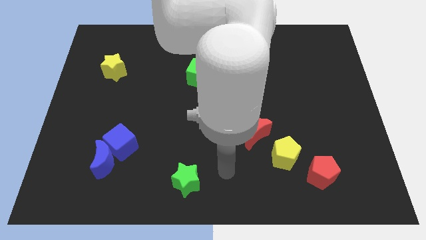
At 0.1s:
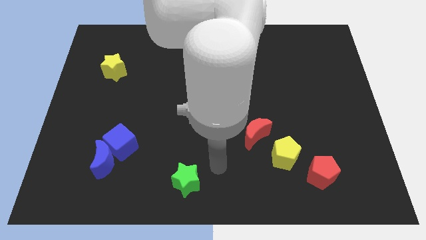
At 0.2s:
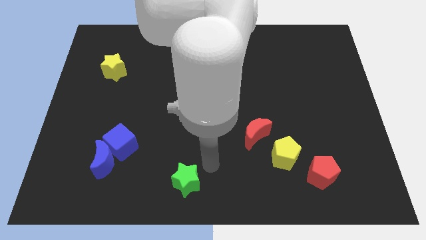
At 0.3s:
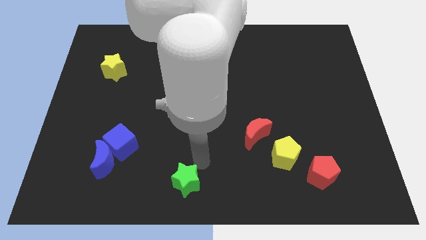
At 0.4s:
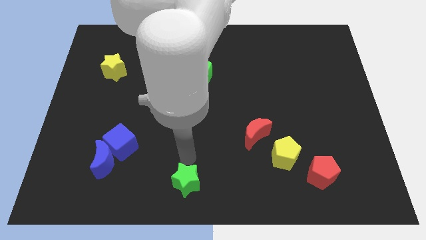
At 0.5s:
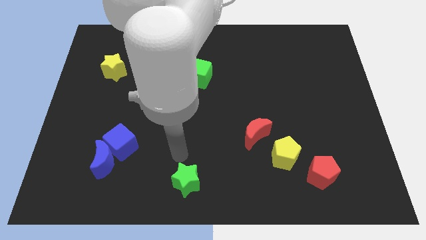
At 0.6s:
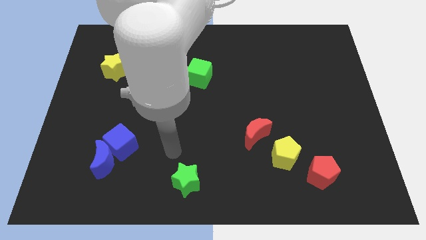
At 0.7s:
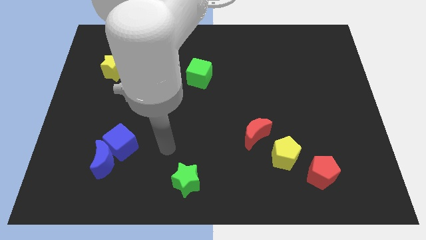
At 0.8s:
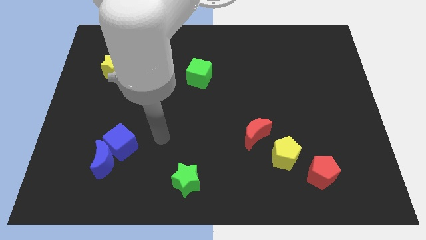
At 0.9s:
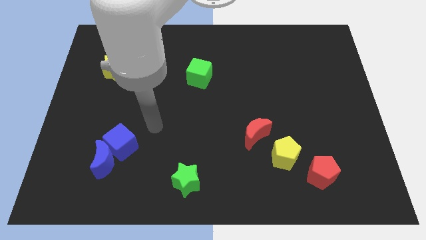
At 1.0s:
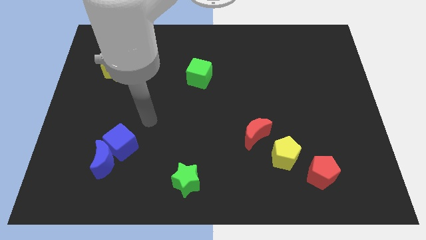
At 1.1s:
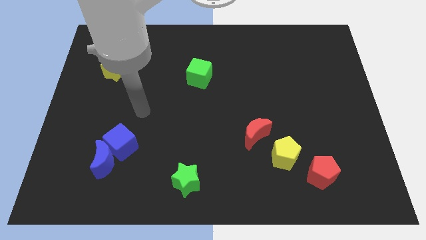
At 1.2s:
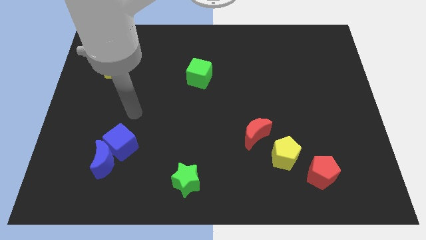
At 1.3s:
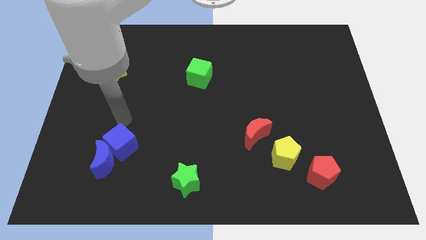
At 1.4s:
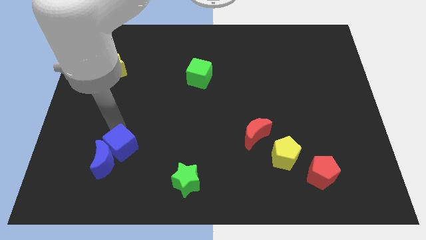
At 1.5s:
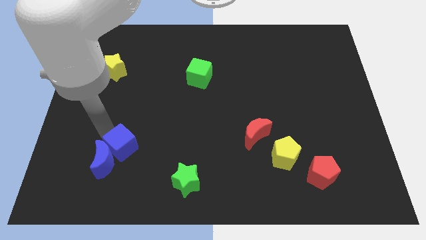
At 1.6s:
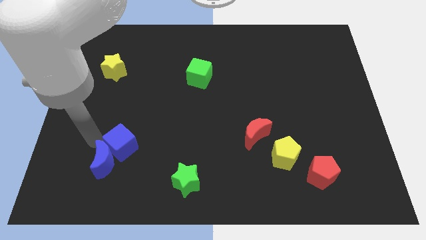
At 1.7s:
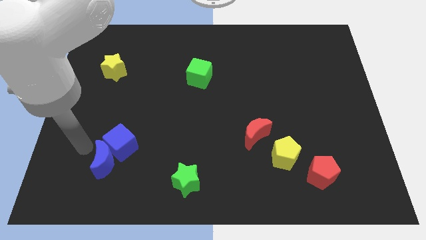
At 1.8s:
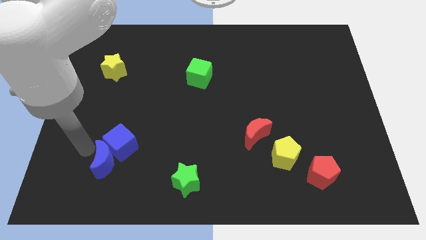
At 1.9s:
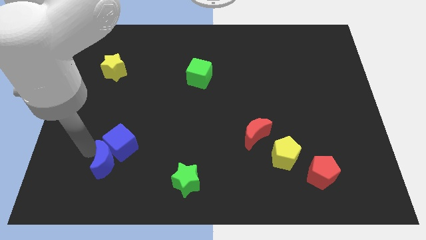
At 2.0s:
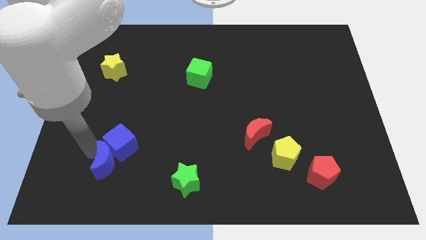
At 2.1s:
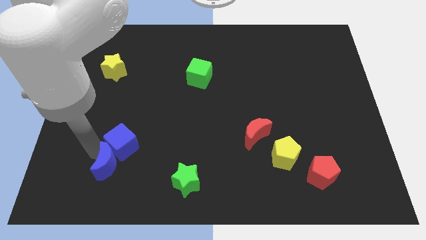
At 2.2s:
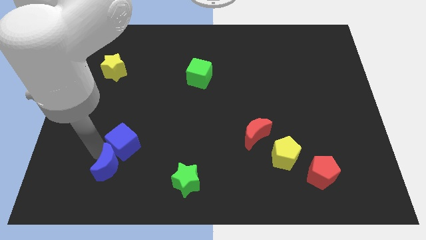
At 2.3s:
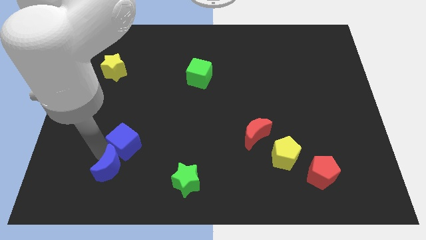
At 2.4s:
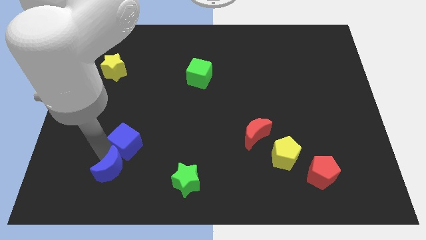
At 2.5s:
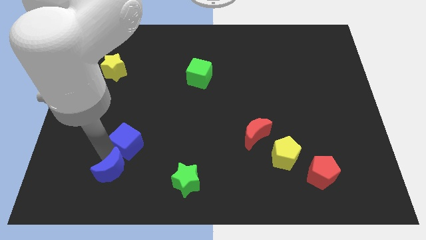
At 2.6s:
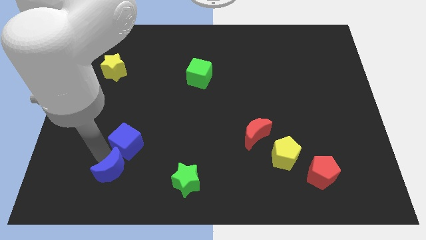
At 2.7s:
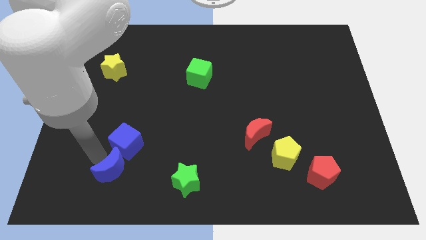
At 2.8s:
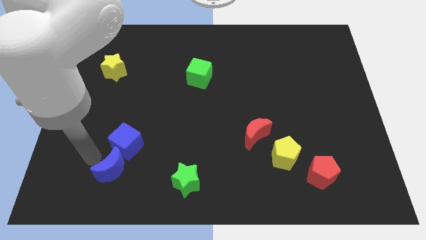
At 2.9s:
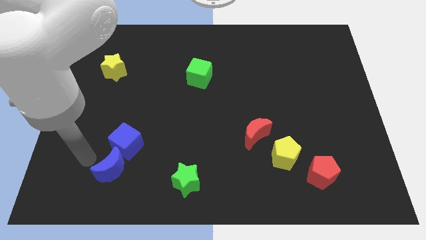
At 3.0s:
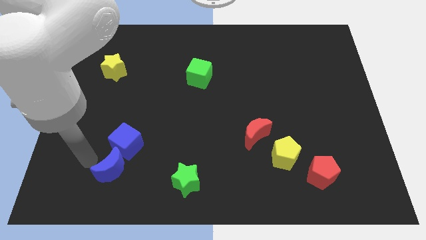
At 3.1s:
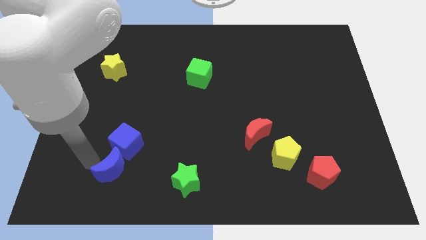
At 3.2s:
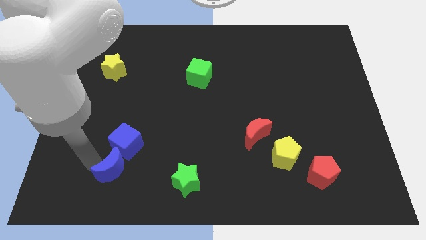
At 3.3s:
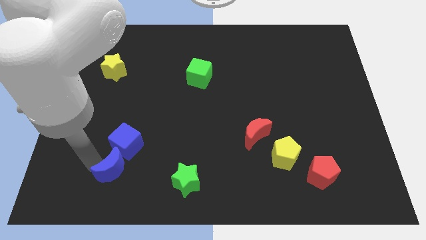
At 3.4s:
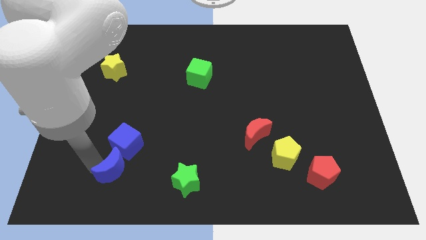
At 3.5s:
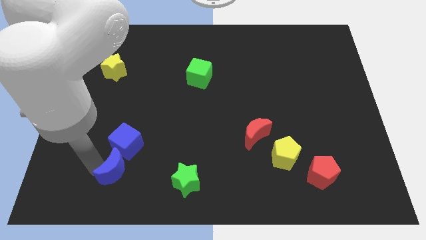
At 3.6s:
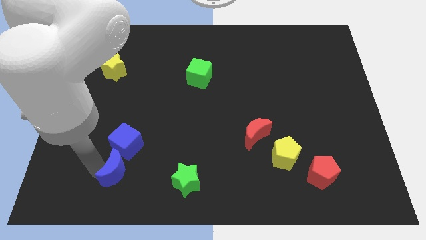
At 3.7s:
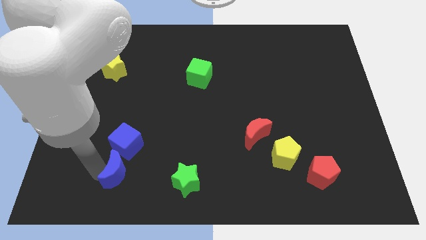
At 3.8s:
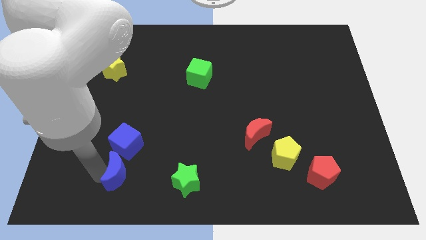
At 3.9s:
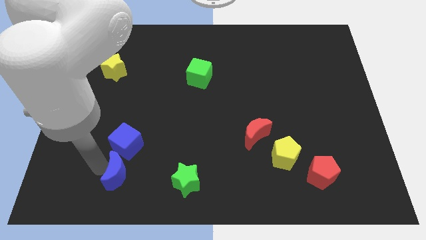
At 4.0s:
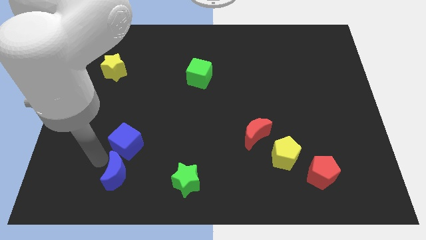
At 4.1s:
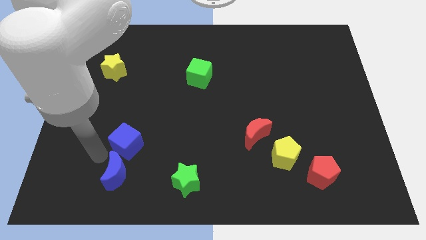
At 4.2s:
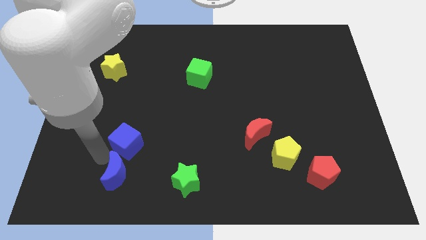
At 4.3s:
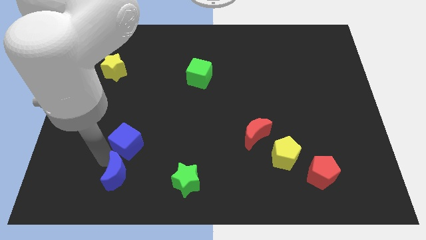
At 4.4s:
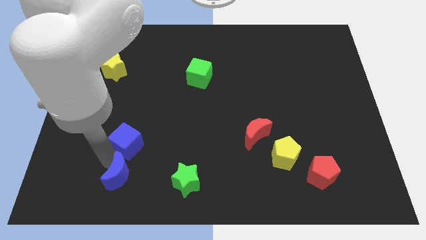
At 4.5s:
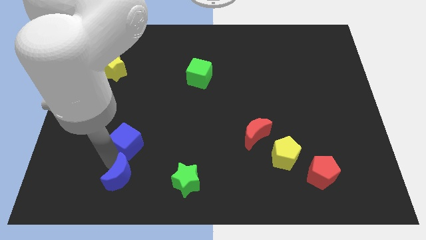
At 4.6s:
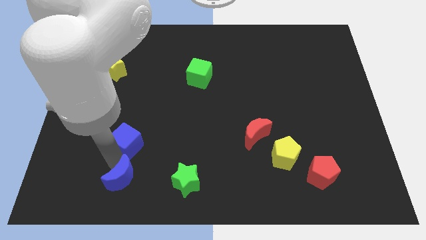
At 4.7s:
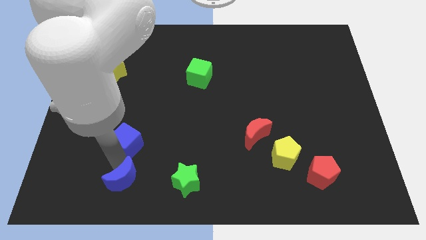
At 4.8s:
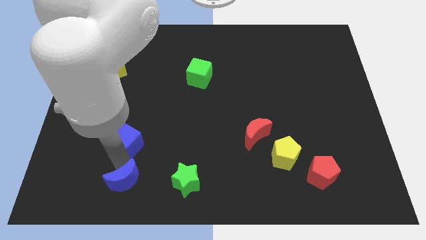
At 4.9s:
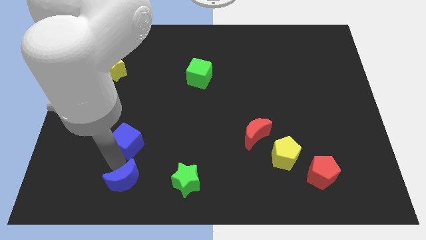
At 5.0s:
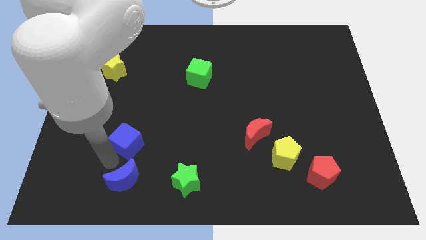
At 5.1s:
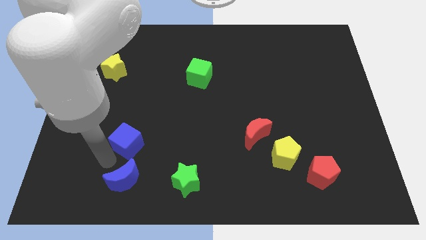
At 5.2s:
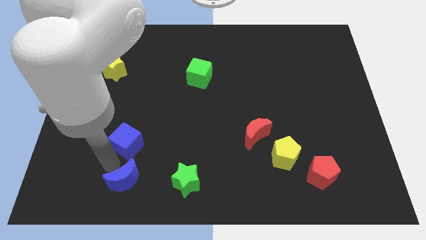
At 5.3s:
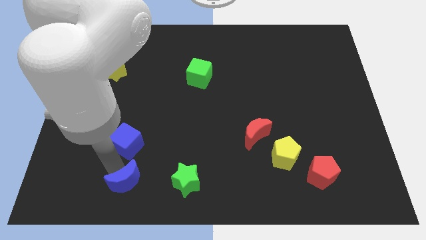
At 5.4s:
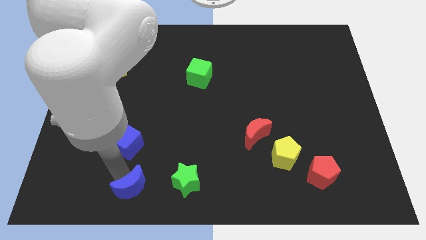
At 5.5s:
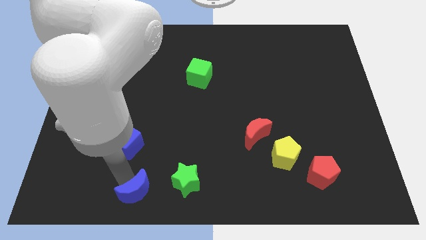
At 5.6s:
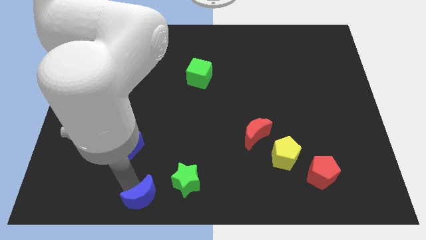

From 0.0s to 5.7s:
slide the blue moon to the bottom

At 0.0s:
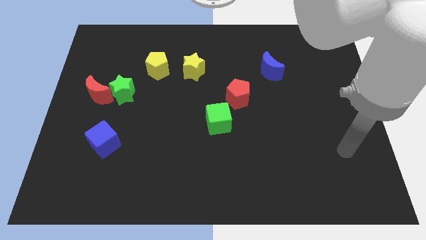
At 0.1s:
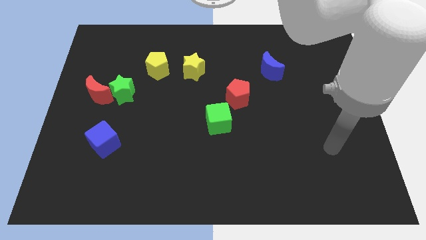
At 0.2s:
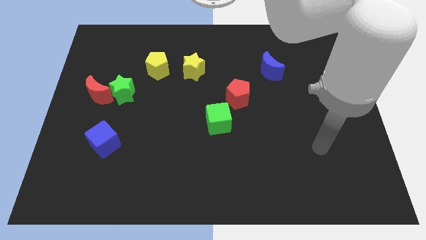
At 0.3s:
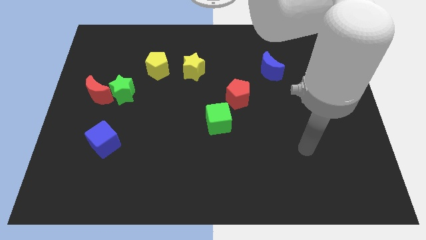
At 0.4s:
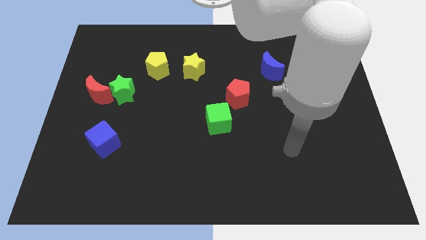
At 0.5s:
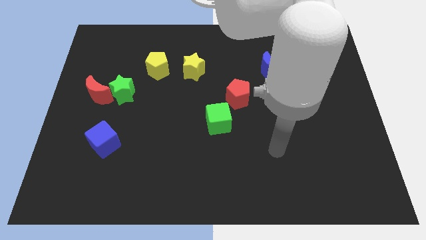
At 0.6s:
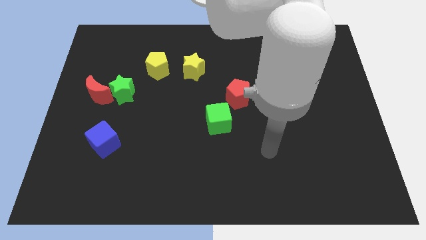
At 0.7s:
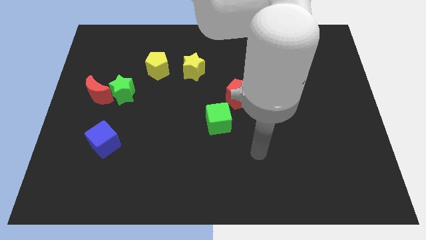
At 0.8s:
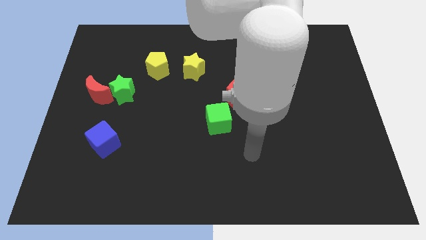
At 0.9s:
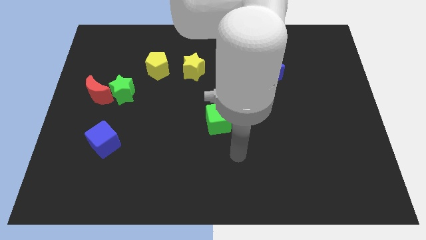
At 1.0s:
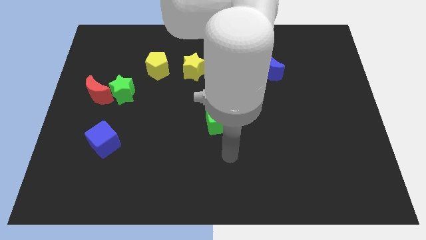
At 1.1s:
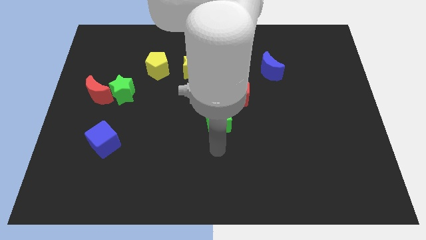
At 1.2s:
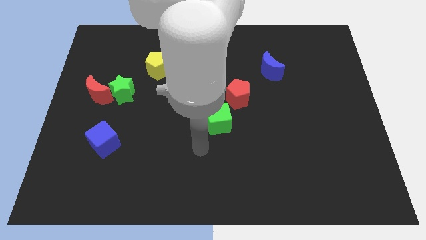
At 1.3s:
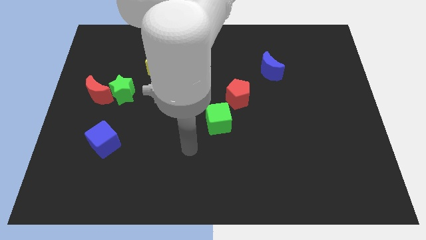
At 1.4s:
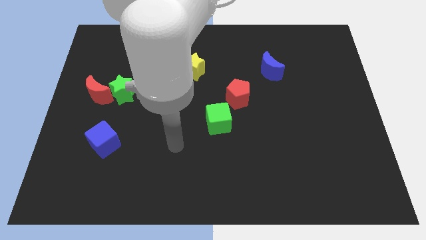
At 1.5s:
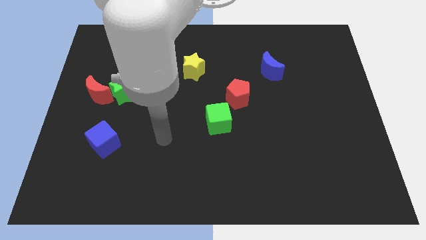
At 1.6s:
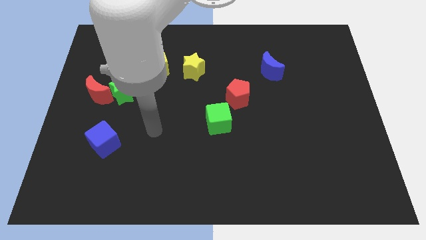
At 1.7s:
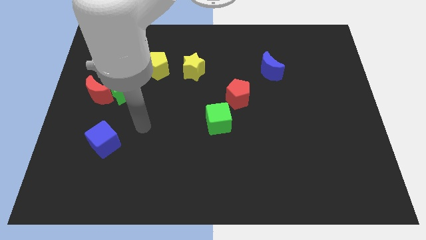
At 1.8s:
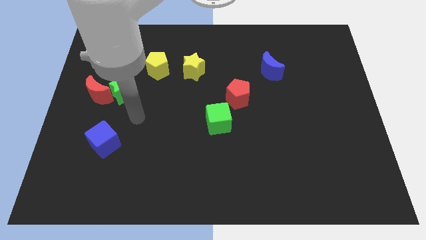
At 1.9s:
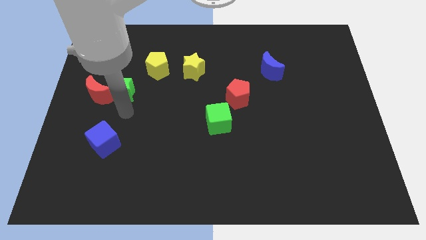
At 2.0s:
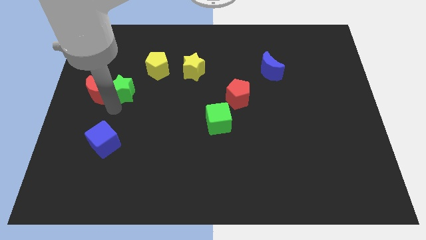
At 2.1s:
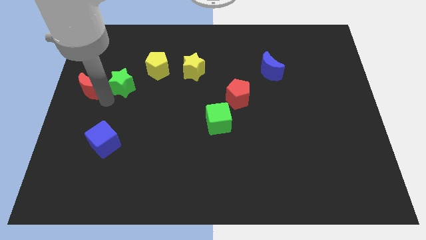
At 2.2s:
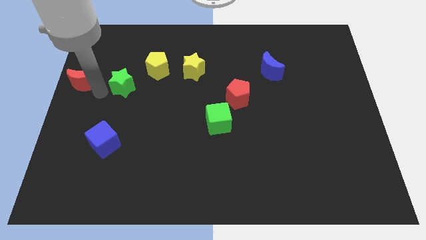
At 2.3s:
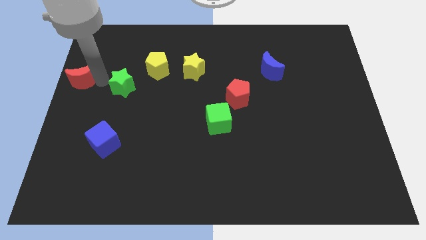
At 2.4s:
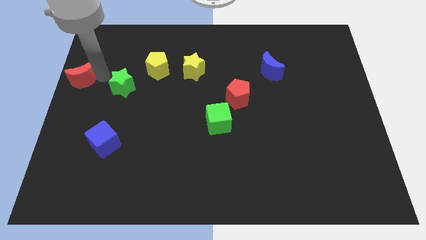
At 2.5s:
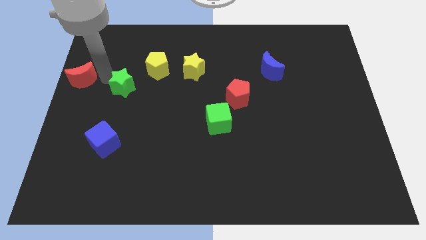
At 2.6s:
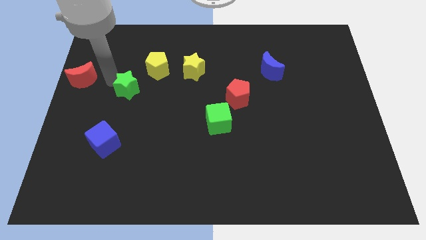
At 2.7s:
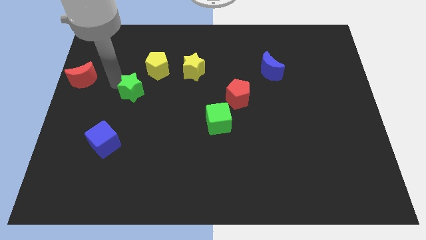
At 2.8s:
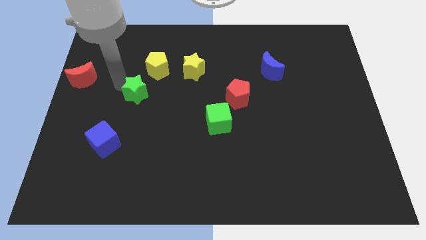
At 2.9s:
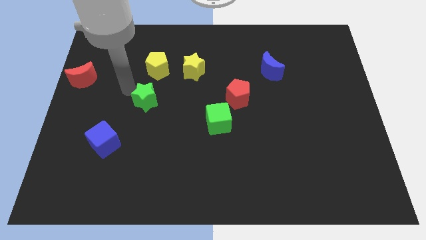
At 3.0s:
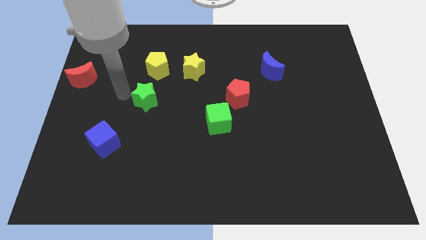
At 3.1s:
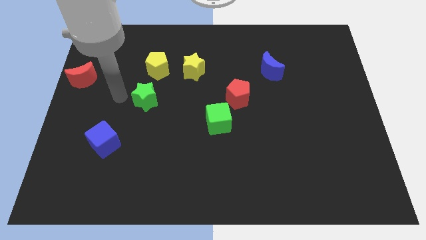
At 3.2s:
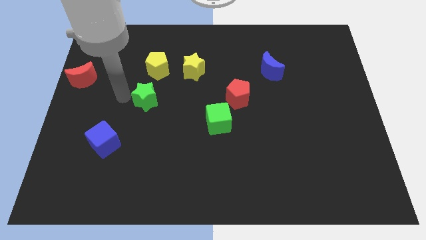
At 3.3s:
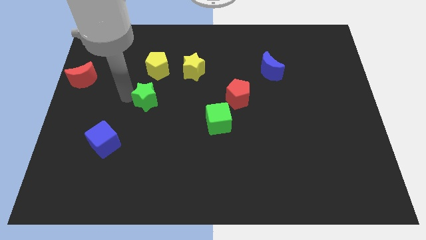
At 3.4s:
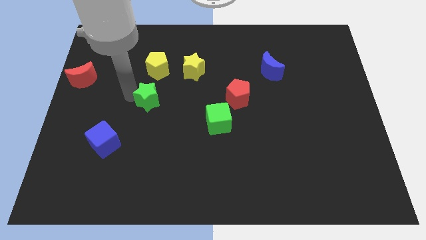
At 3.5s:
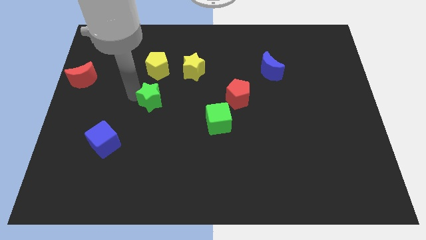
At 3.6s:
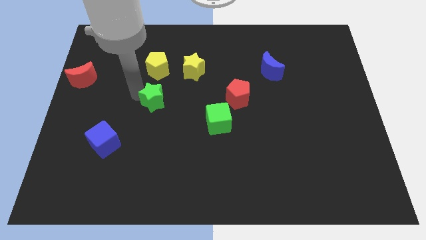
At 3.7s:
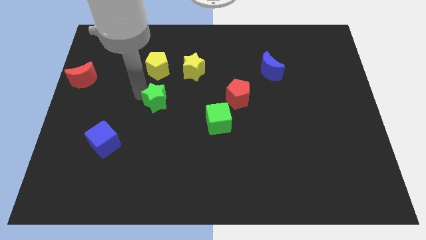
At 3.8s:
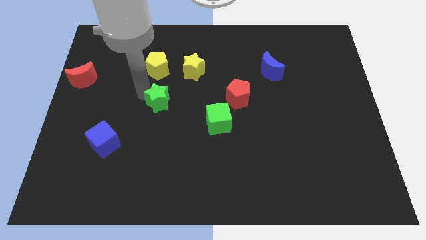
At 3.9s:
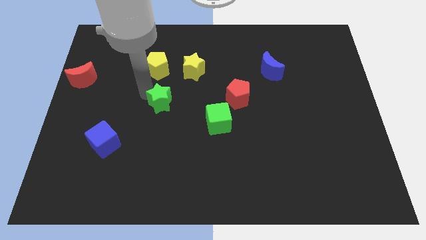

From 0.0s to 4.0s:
slide the green star to the center of the board
